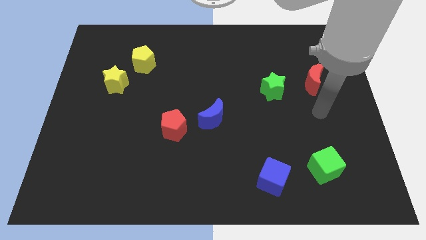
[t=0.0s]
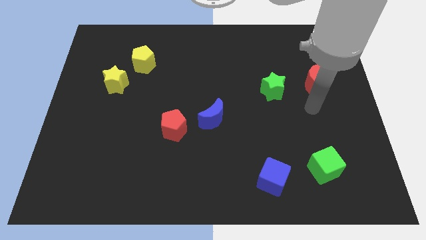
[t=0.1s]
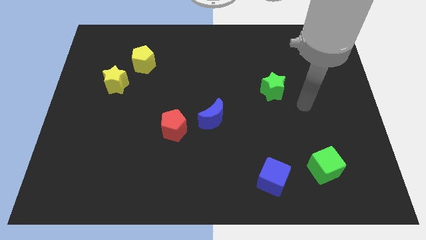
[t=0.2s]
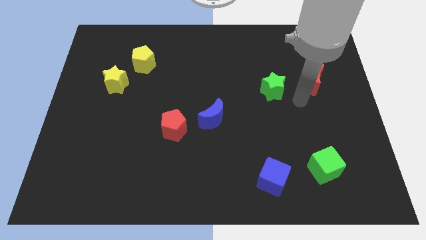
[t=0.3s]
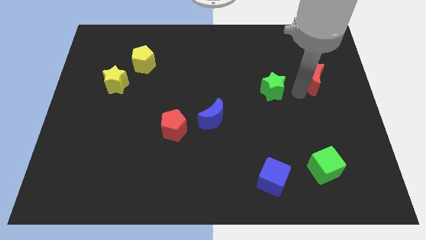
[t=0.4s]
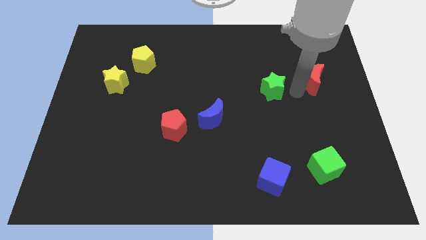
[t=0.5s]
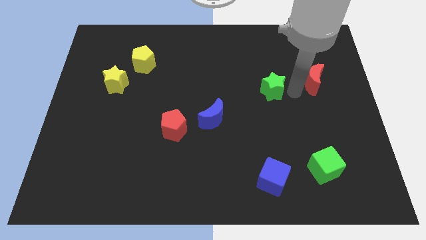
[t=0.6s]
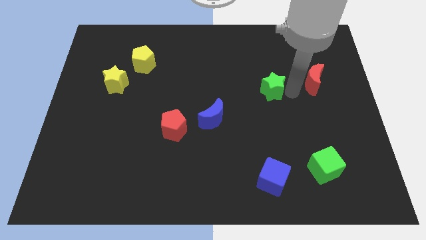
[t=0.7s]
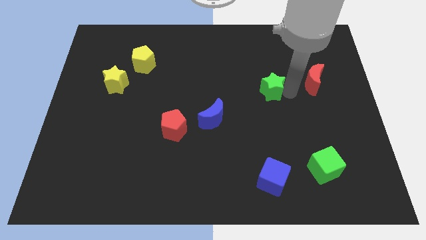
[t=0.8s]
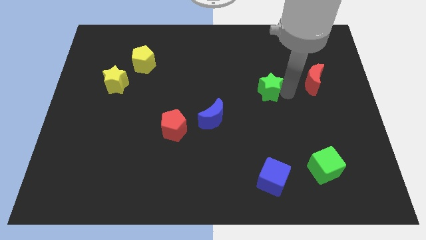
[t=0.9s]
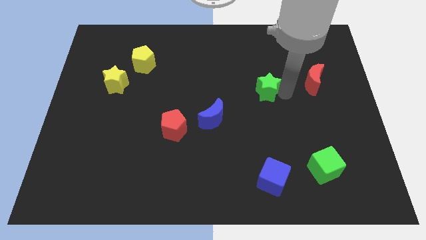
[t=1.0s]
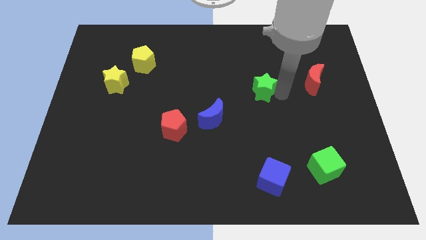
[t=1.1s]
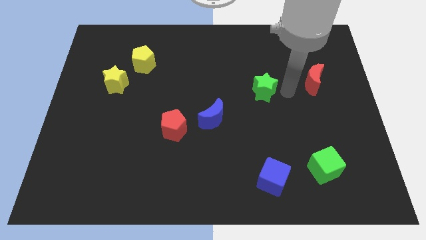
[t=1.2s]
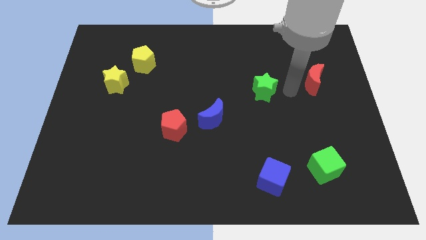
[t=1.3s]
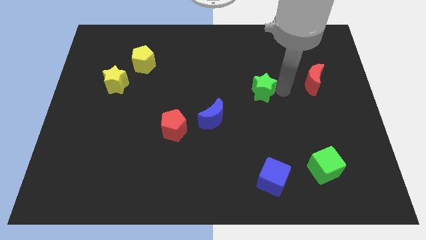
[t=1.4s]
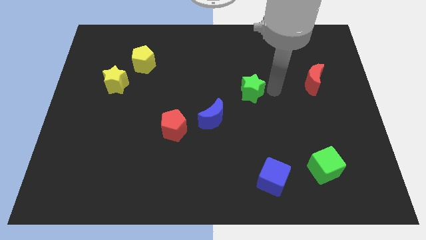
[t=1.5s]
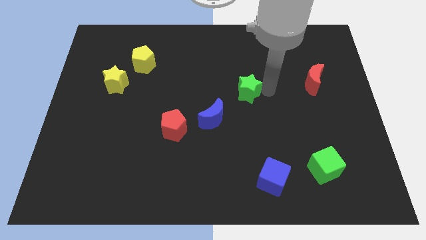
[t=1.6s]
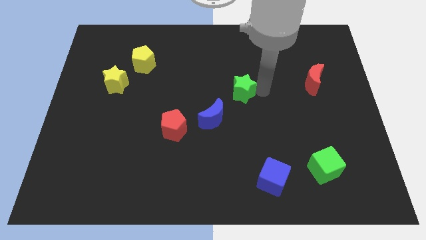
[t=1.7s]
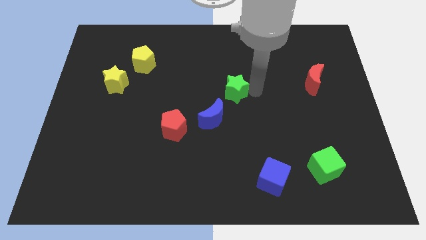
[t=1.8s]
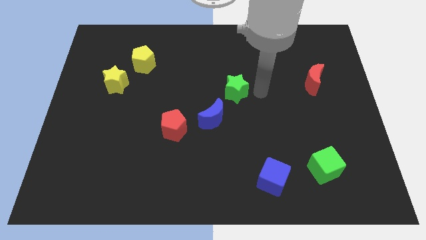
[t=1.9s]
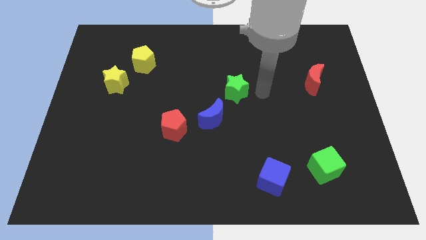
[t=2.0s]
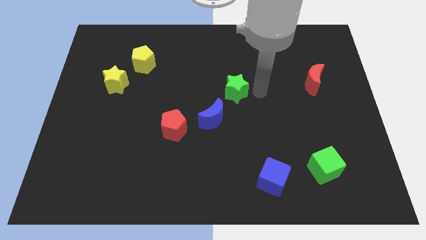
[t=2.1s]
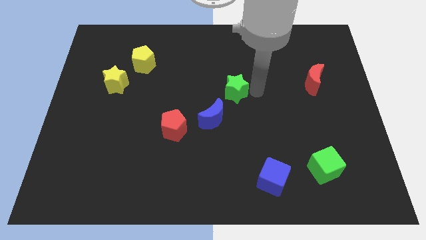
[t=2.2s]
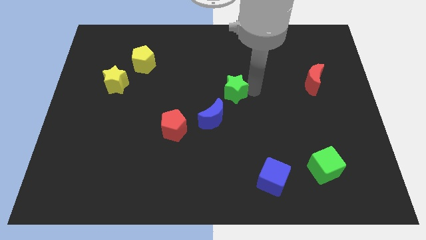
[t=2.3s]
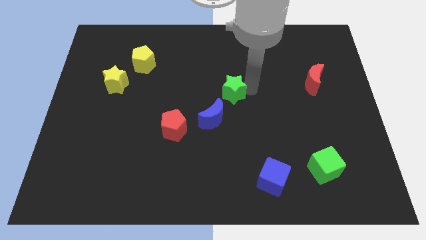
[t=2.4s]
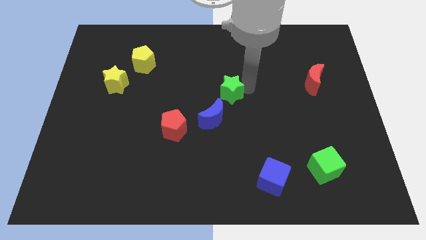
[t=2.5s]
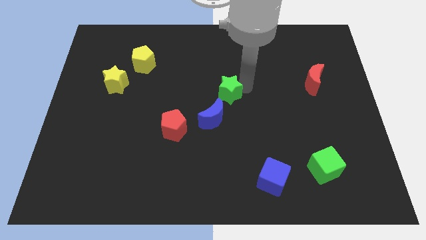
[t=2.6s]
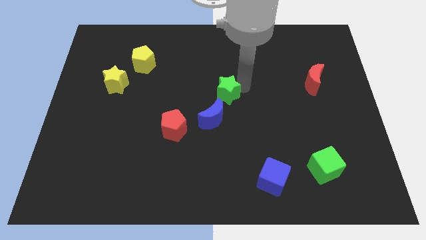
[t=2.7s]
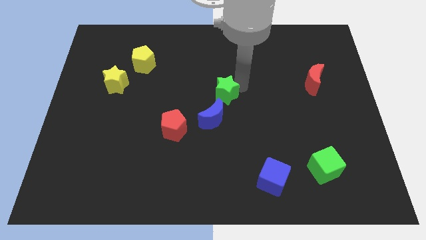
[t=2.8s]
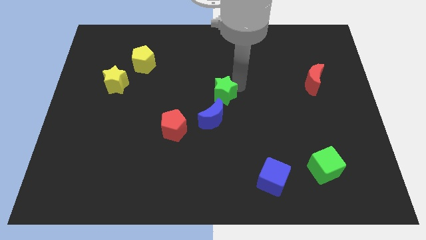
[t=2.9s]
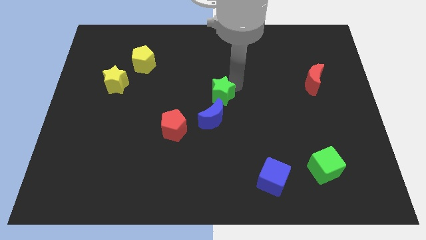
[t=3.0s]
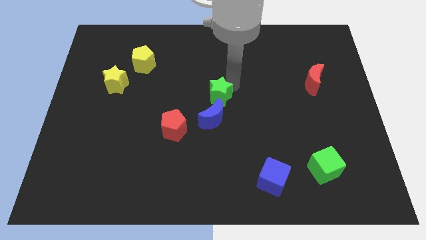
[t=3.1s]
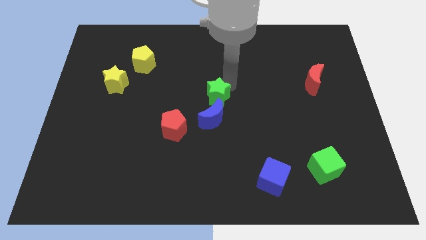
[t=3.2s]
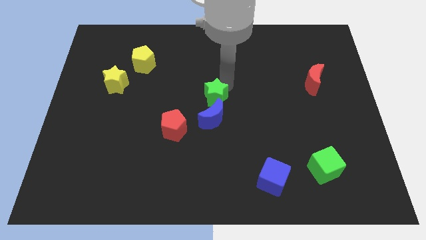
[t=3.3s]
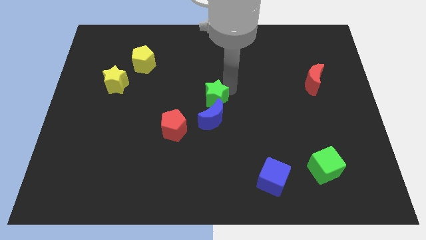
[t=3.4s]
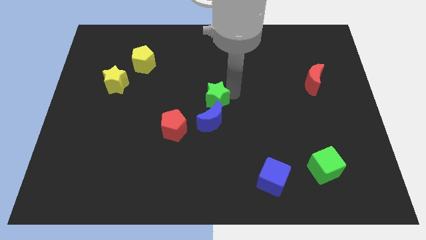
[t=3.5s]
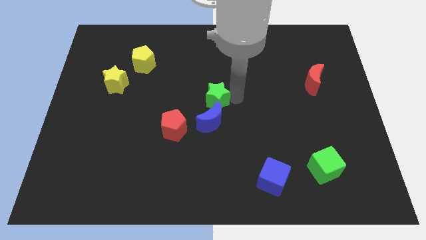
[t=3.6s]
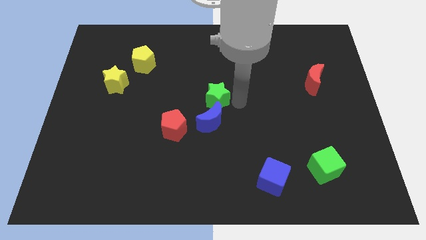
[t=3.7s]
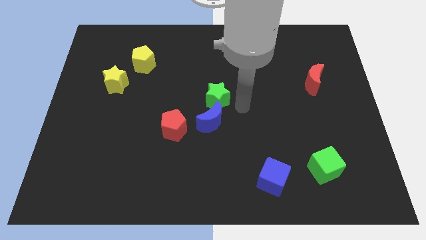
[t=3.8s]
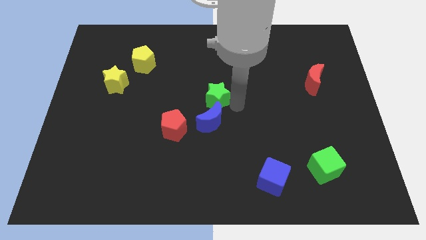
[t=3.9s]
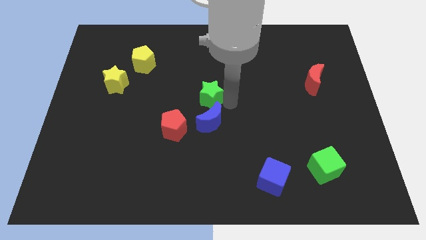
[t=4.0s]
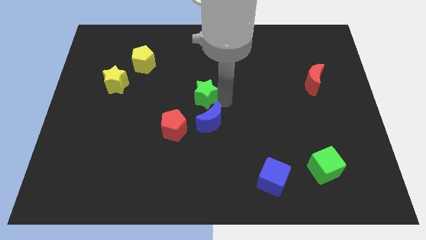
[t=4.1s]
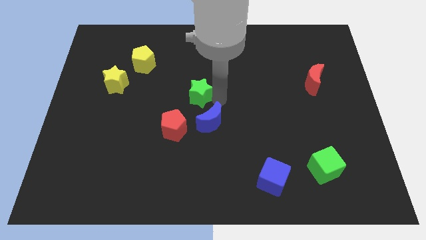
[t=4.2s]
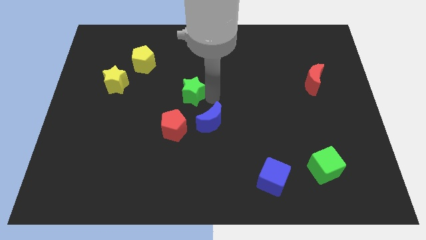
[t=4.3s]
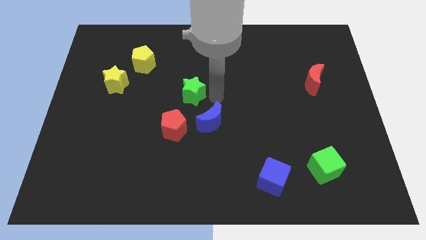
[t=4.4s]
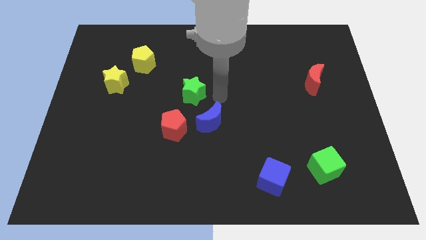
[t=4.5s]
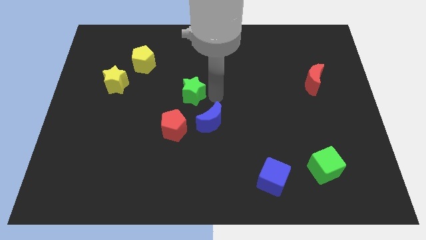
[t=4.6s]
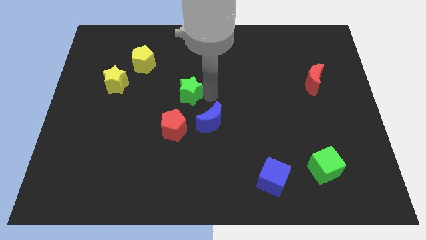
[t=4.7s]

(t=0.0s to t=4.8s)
move the green star to the left

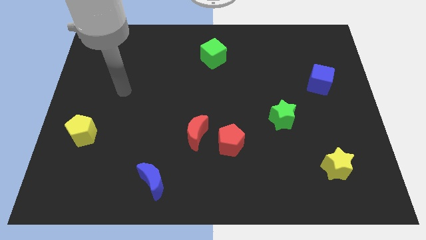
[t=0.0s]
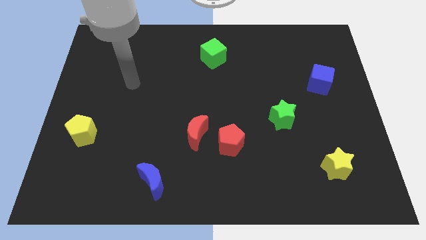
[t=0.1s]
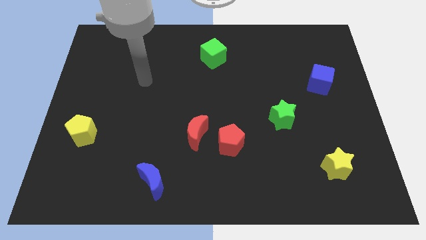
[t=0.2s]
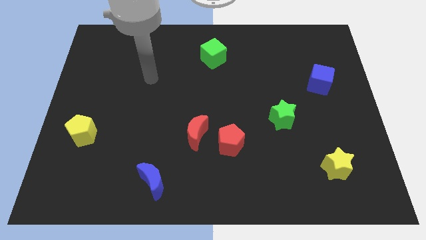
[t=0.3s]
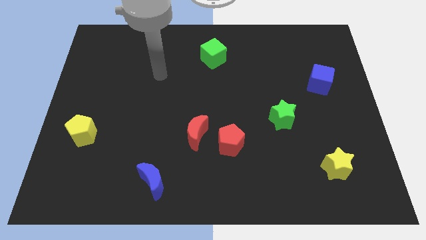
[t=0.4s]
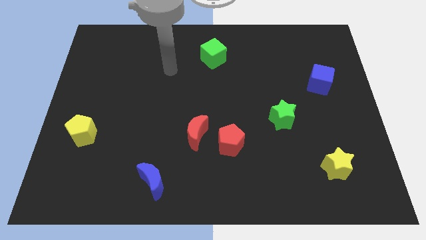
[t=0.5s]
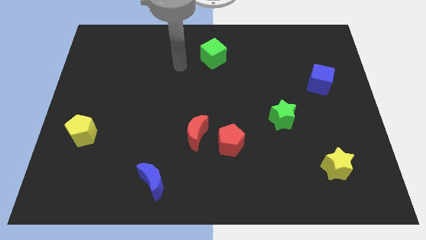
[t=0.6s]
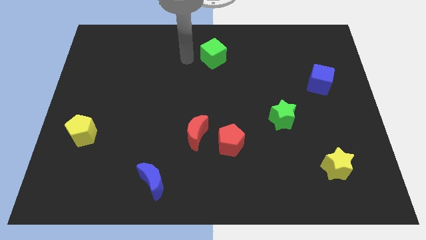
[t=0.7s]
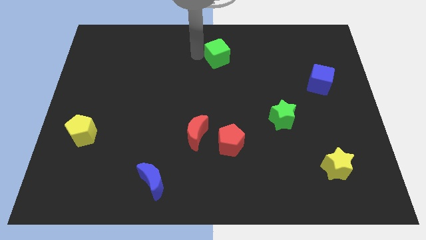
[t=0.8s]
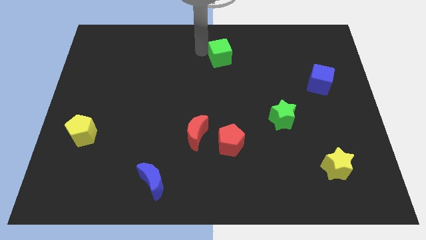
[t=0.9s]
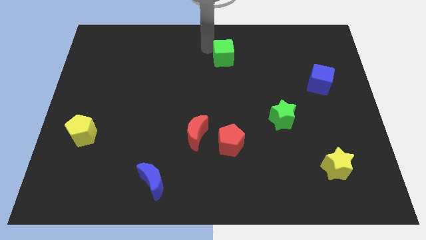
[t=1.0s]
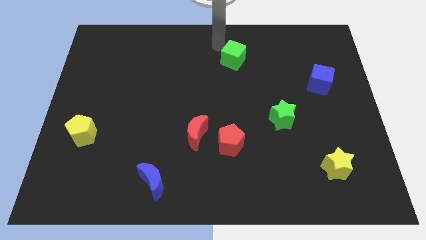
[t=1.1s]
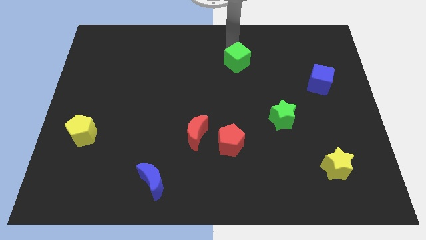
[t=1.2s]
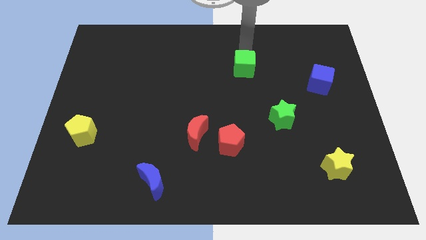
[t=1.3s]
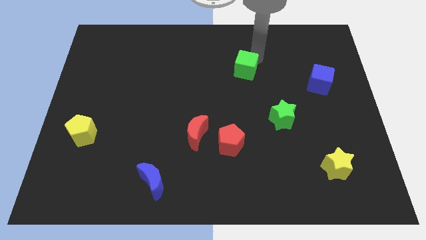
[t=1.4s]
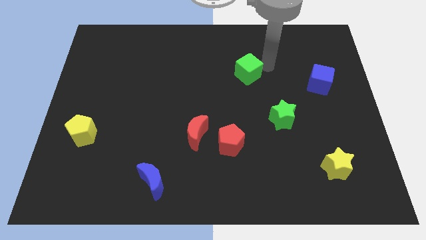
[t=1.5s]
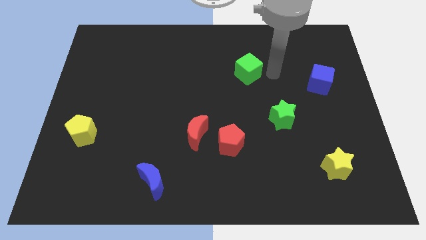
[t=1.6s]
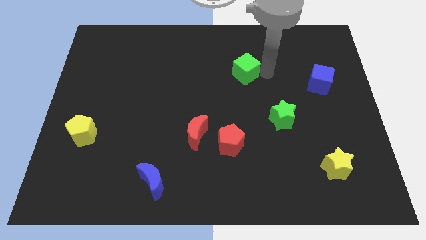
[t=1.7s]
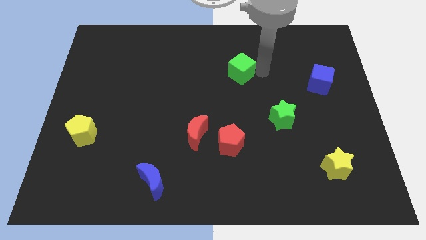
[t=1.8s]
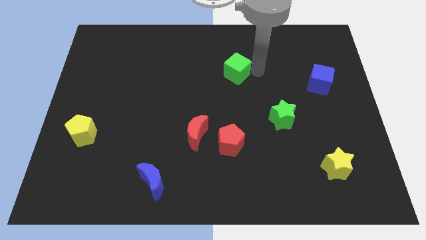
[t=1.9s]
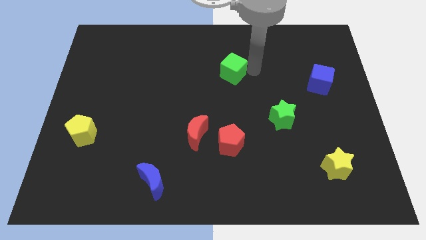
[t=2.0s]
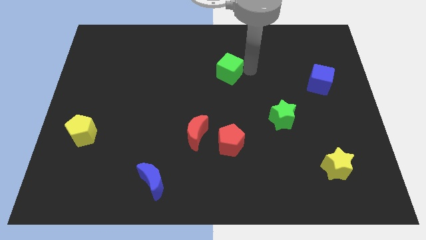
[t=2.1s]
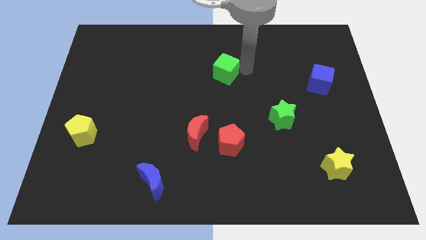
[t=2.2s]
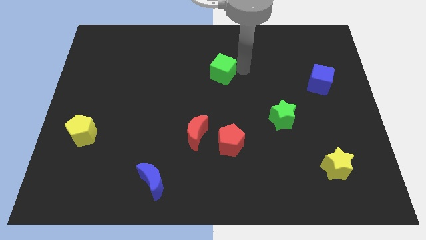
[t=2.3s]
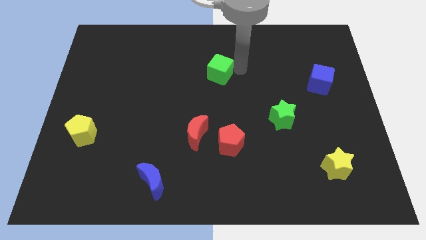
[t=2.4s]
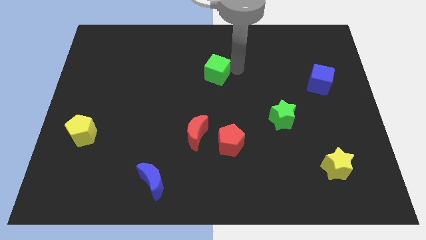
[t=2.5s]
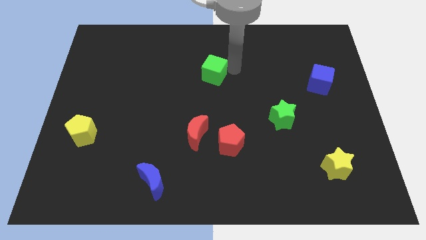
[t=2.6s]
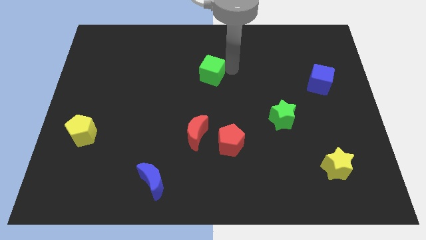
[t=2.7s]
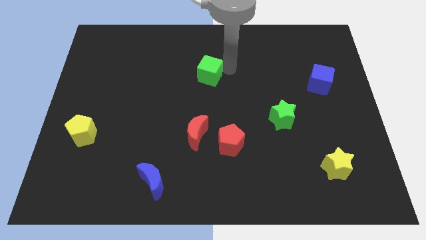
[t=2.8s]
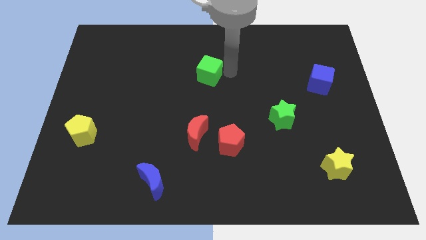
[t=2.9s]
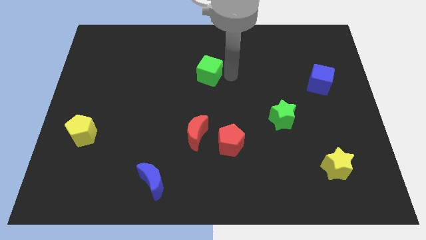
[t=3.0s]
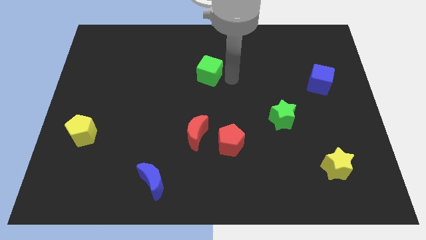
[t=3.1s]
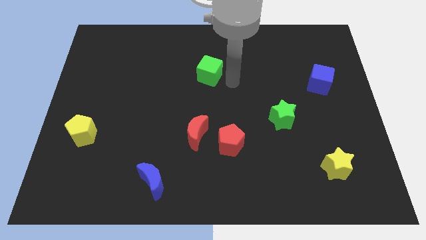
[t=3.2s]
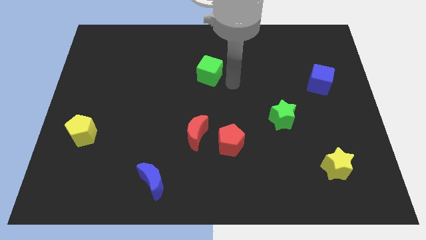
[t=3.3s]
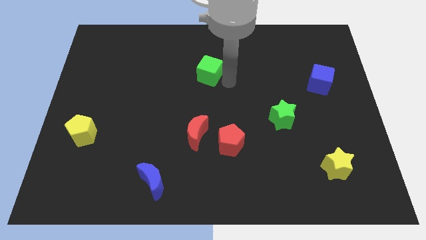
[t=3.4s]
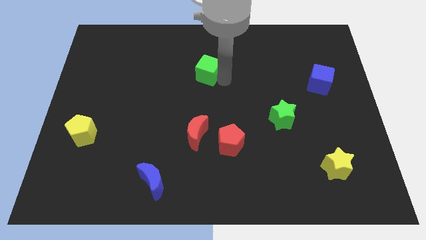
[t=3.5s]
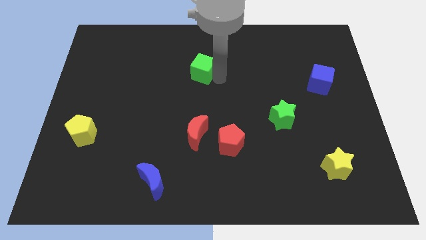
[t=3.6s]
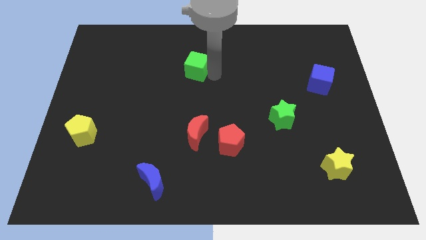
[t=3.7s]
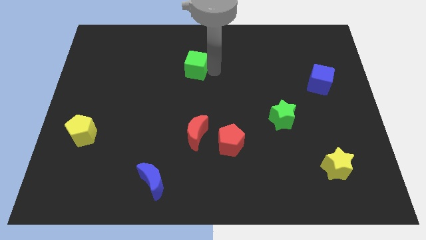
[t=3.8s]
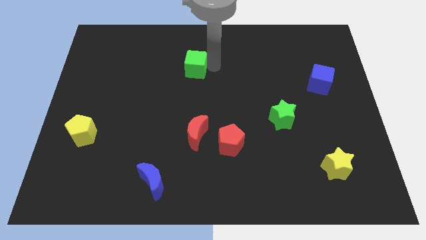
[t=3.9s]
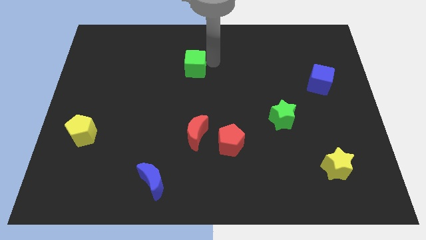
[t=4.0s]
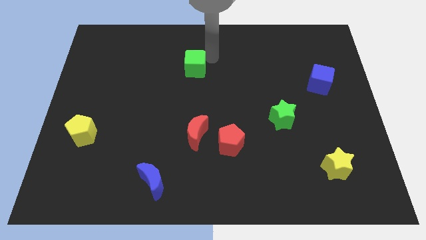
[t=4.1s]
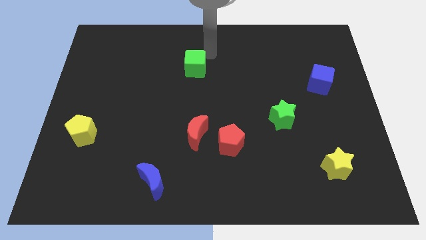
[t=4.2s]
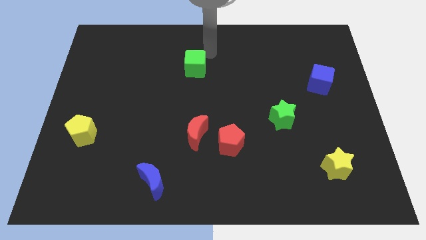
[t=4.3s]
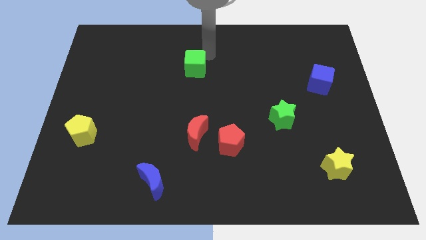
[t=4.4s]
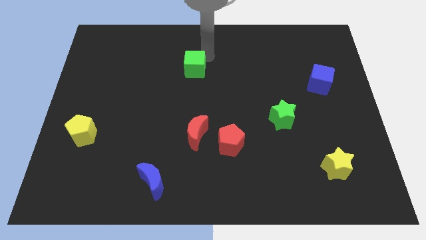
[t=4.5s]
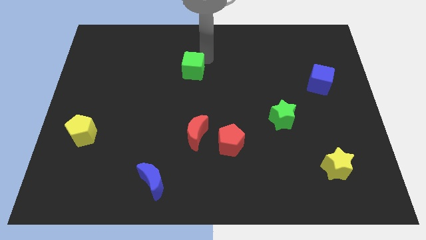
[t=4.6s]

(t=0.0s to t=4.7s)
move the green cube a little bit down and then to the left
